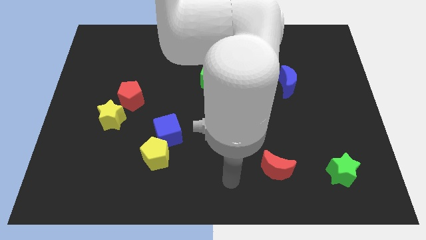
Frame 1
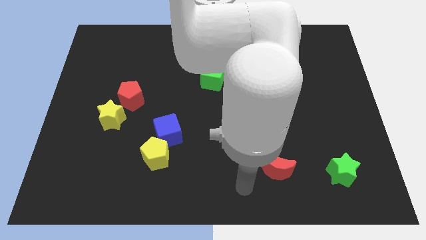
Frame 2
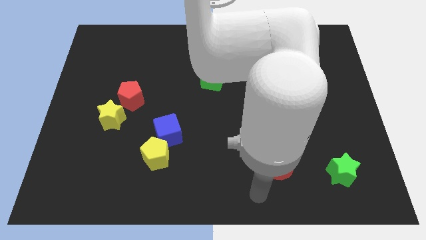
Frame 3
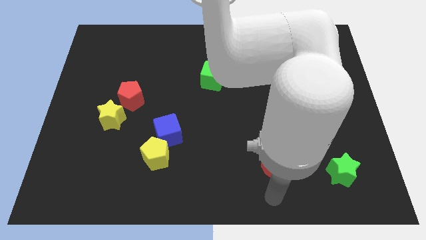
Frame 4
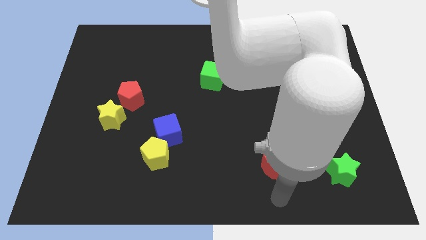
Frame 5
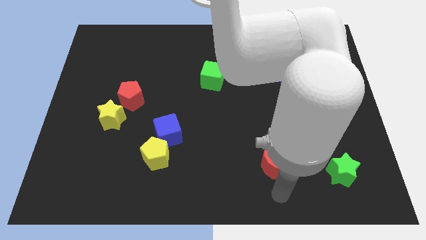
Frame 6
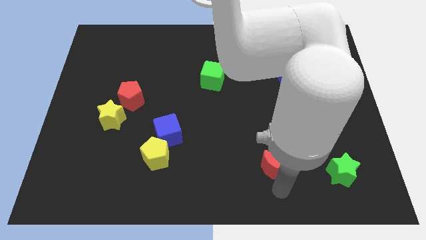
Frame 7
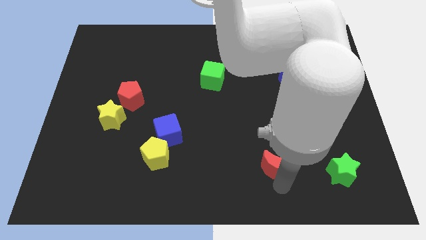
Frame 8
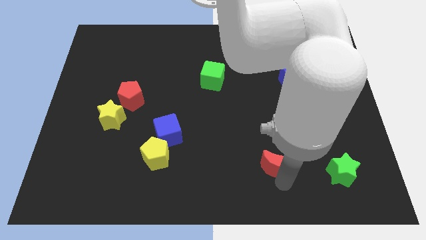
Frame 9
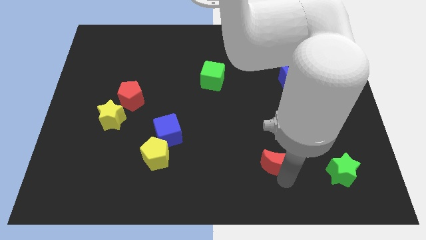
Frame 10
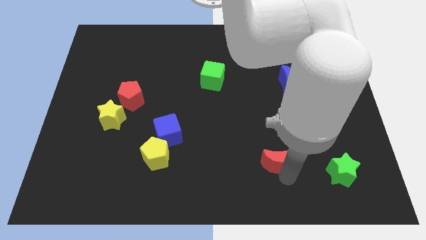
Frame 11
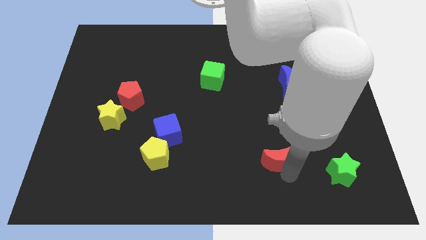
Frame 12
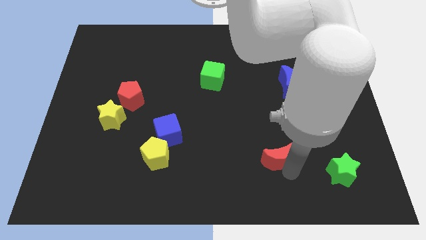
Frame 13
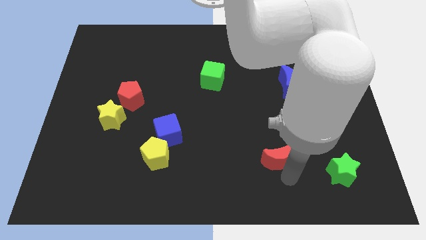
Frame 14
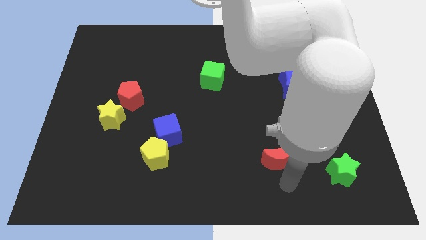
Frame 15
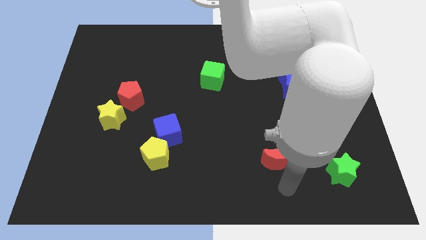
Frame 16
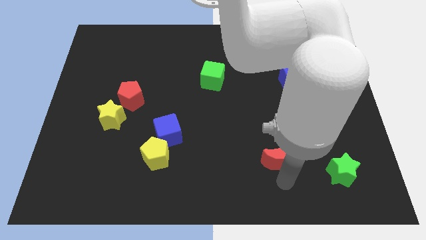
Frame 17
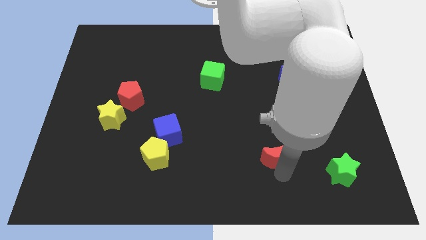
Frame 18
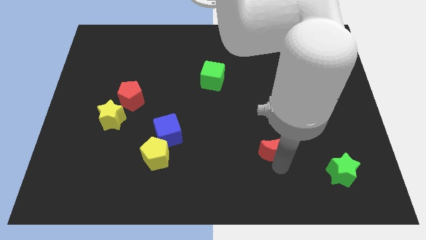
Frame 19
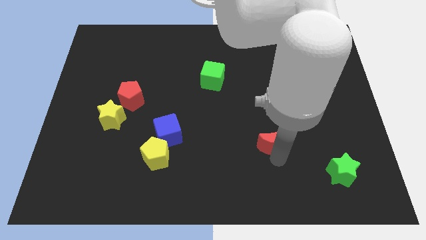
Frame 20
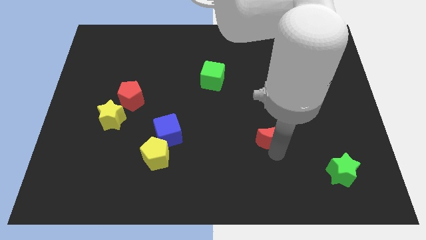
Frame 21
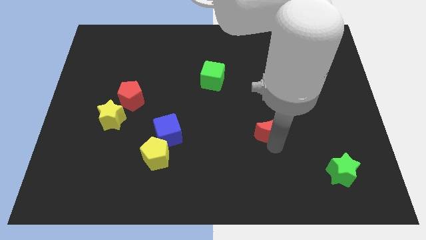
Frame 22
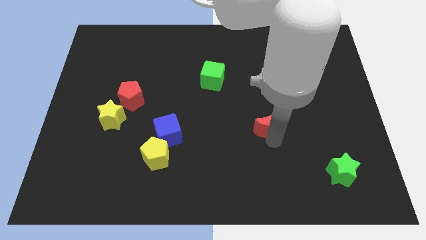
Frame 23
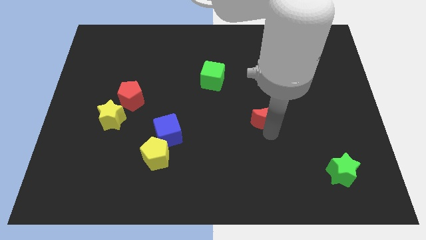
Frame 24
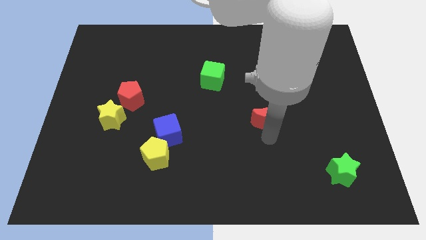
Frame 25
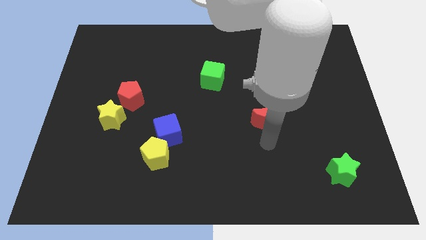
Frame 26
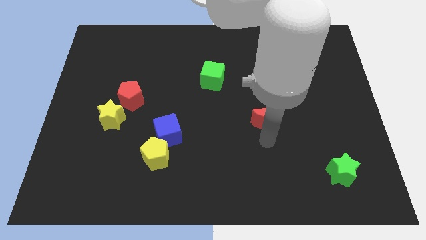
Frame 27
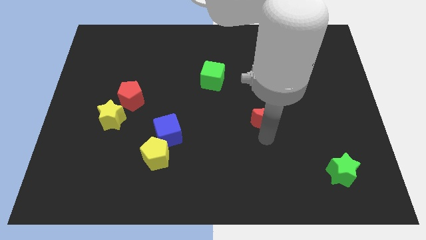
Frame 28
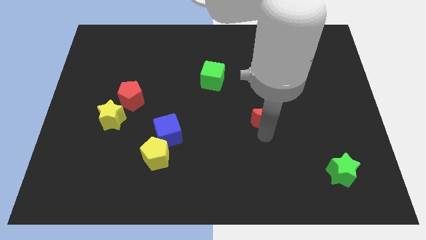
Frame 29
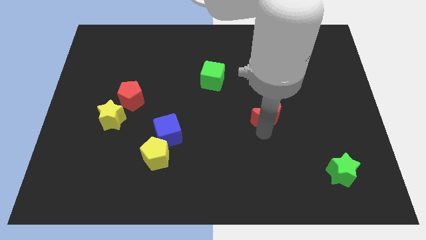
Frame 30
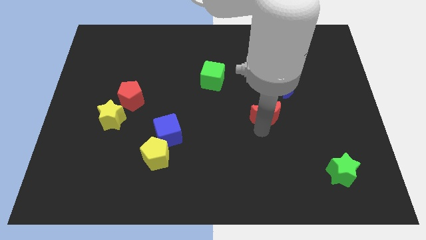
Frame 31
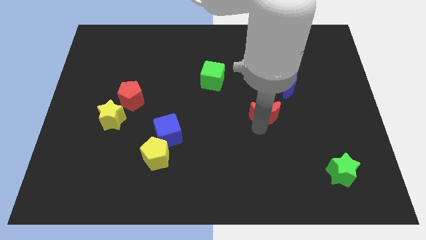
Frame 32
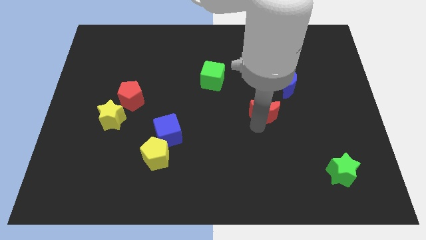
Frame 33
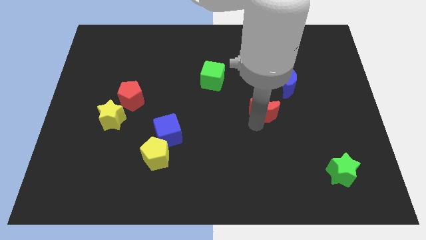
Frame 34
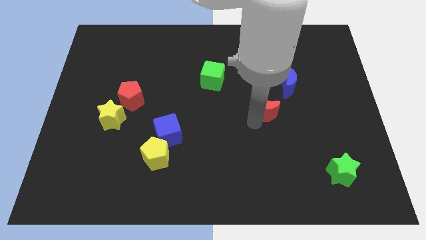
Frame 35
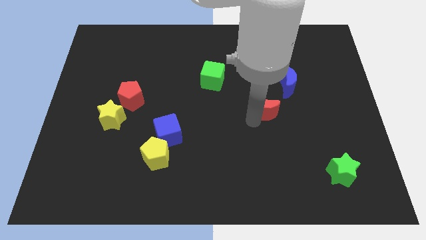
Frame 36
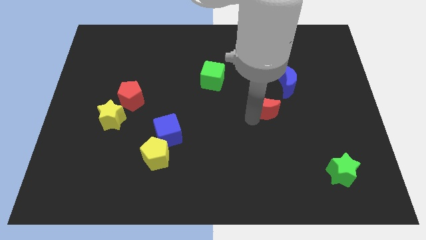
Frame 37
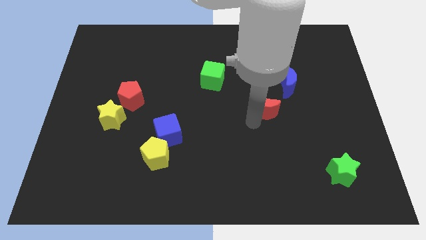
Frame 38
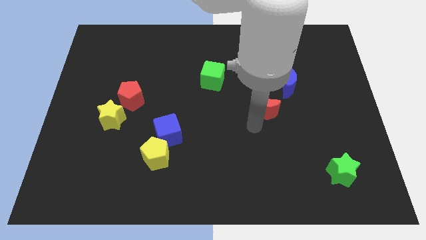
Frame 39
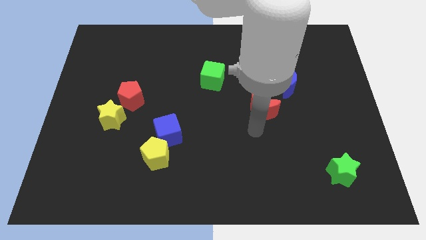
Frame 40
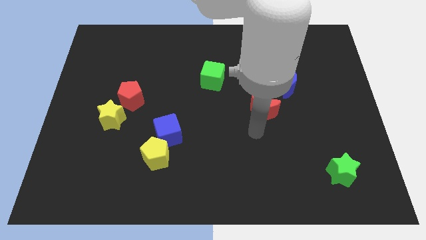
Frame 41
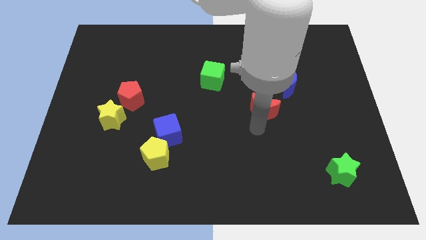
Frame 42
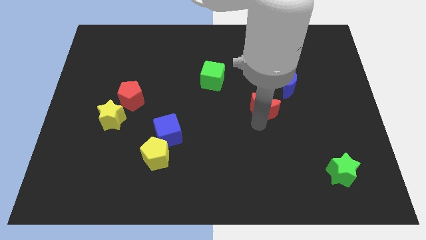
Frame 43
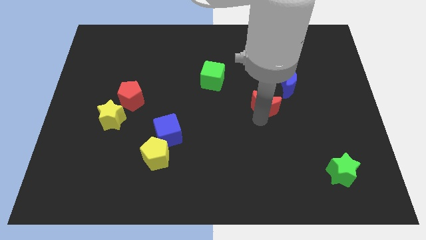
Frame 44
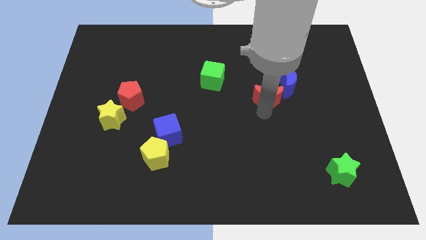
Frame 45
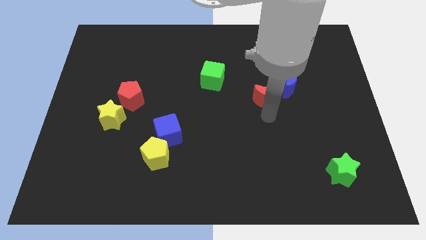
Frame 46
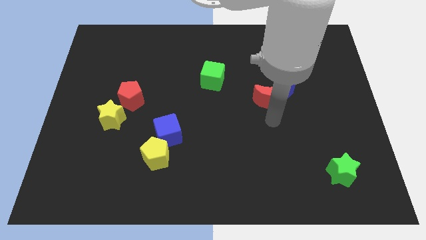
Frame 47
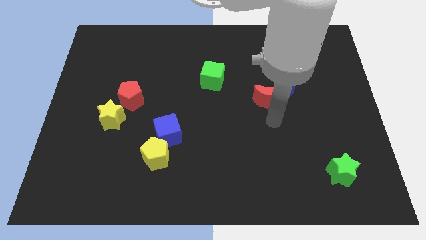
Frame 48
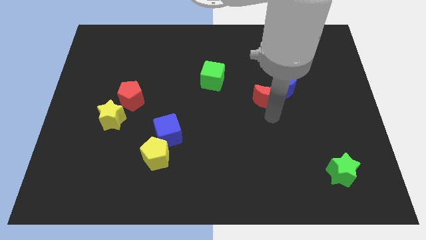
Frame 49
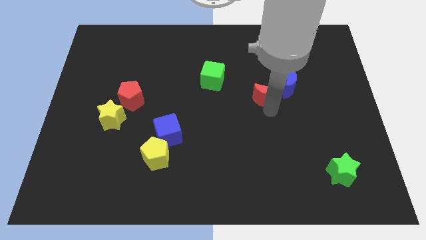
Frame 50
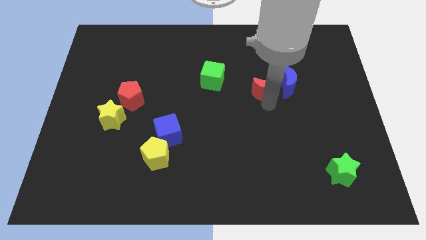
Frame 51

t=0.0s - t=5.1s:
push the red moon up

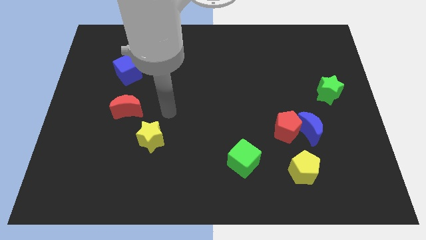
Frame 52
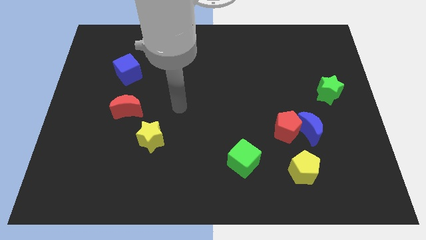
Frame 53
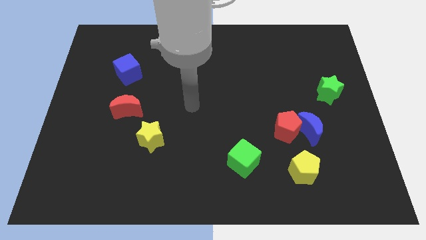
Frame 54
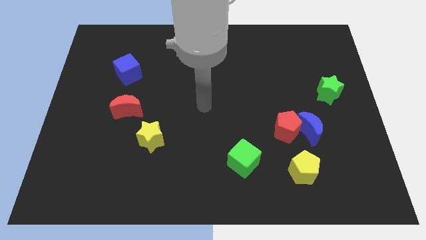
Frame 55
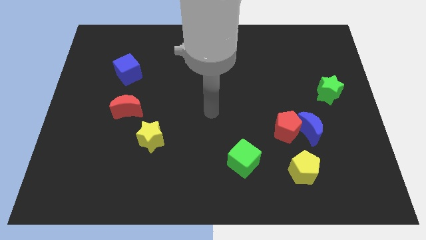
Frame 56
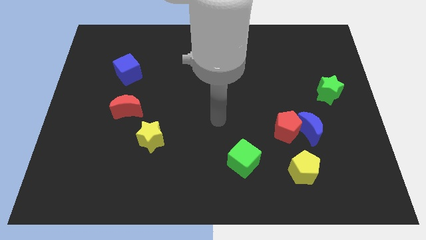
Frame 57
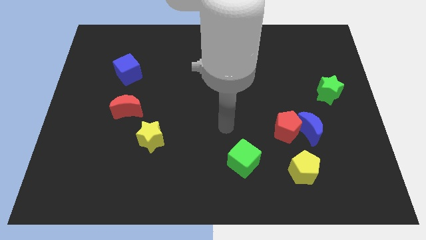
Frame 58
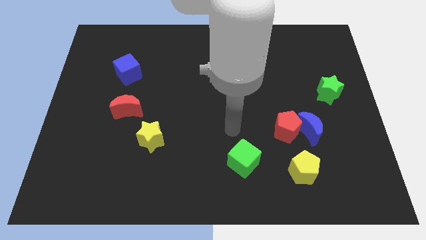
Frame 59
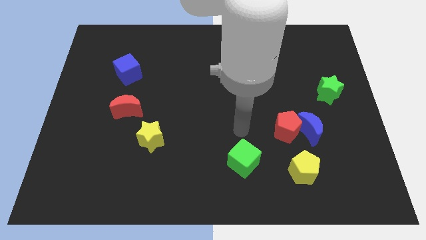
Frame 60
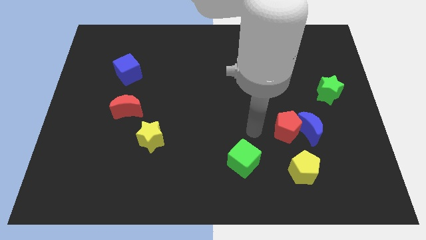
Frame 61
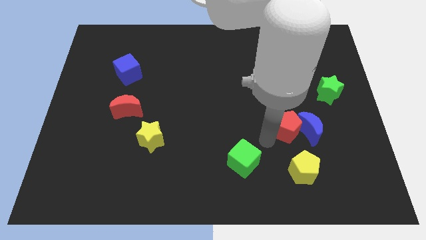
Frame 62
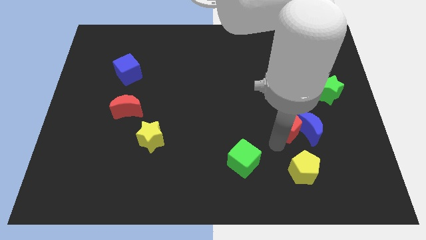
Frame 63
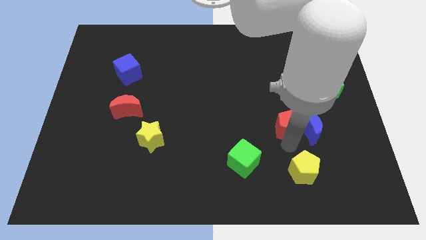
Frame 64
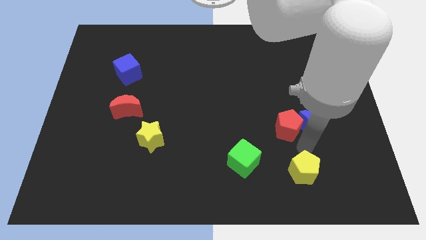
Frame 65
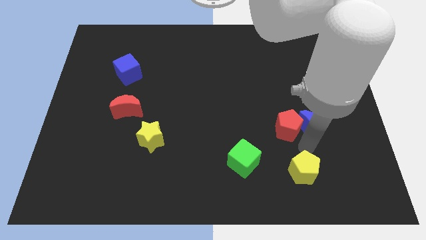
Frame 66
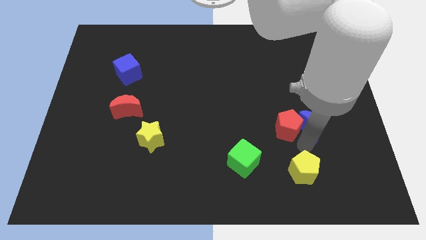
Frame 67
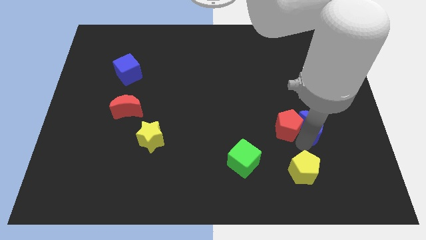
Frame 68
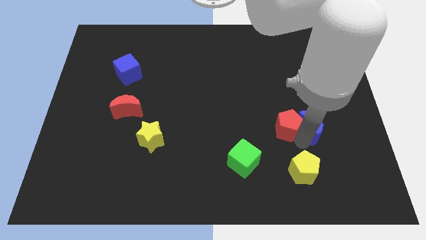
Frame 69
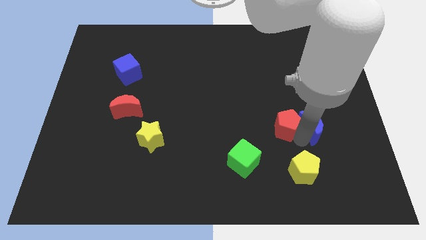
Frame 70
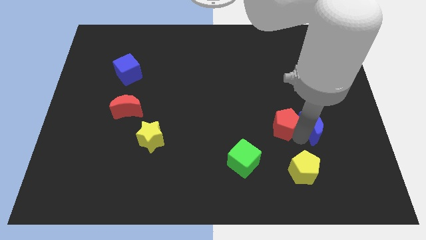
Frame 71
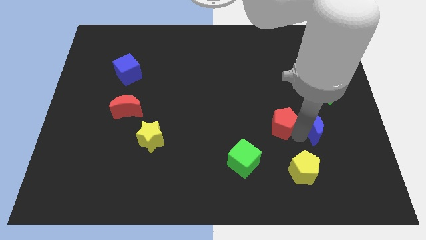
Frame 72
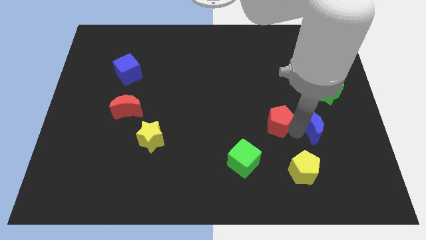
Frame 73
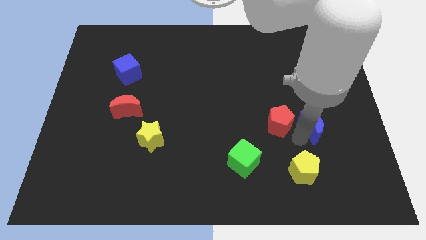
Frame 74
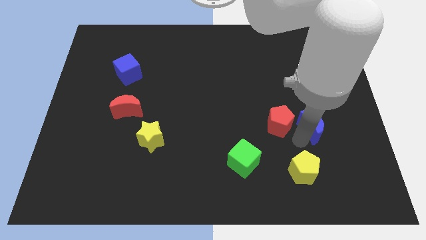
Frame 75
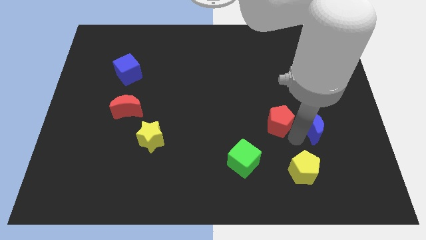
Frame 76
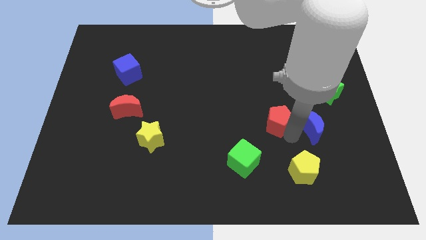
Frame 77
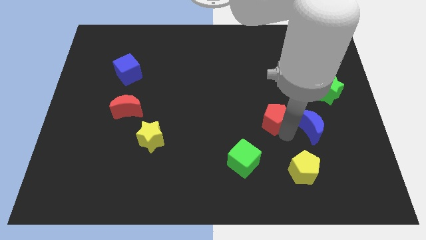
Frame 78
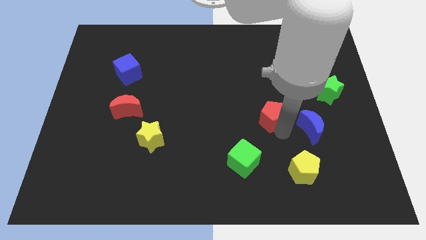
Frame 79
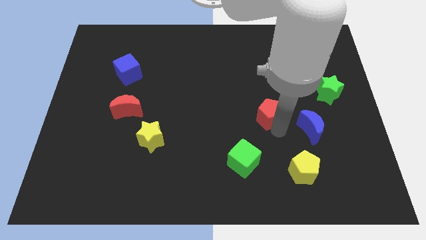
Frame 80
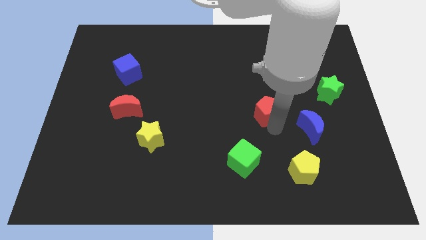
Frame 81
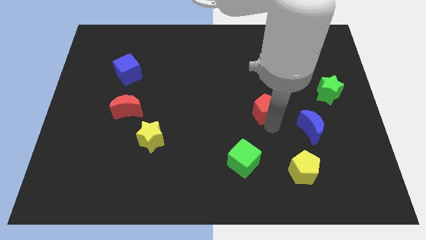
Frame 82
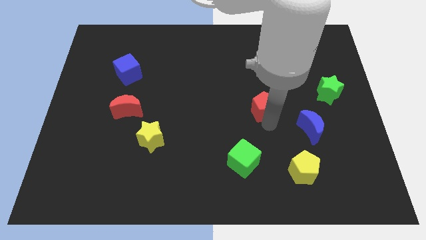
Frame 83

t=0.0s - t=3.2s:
move the red pentagon up and to the left slightly
